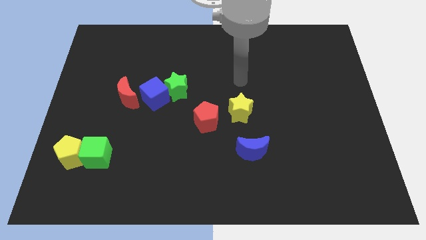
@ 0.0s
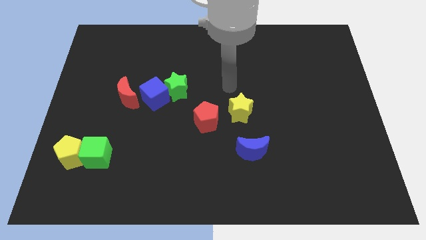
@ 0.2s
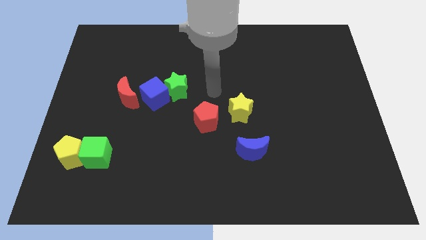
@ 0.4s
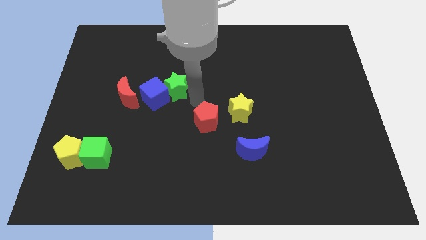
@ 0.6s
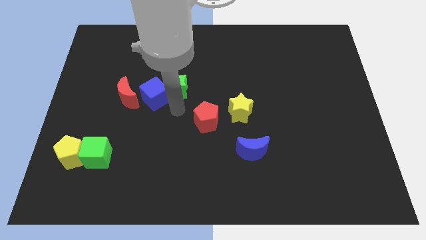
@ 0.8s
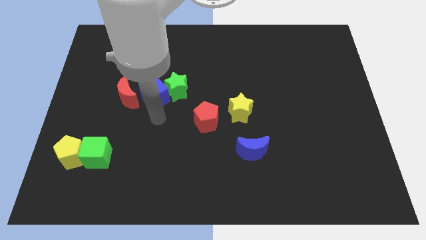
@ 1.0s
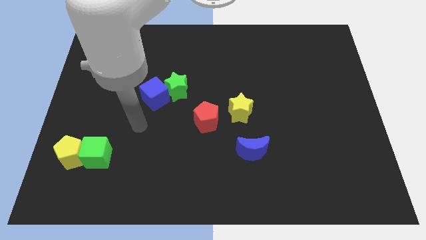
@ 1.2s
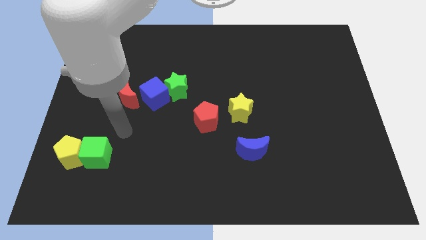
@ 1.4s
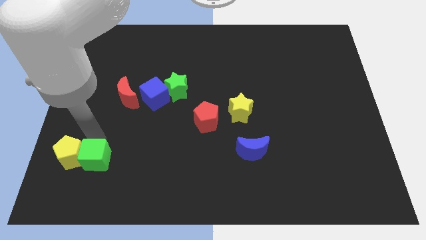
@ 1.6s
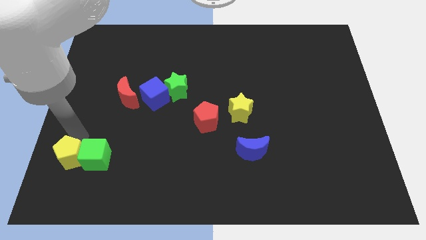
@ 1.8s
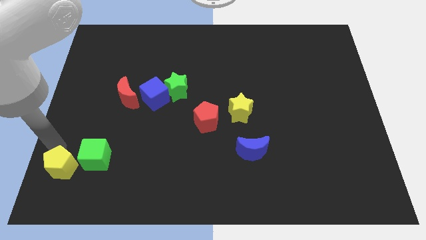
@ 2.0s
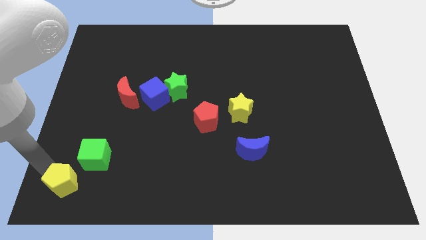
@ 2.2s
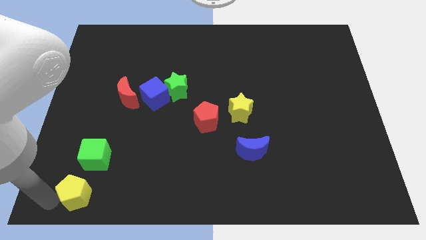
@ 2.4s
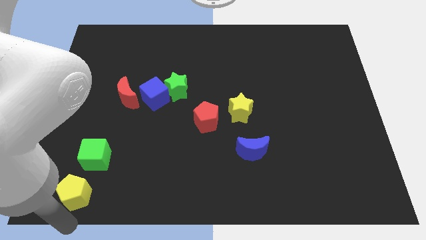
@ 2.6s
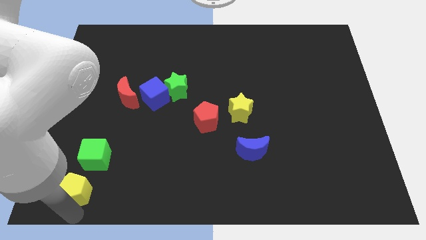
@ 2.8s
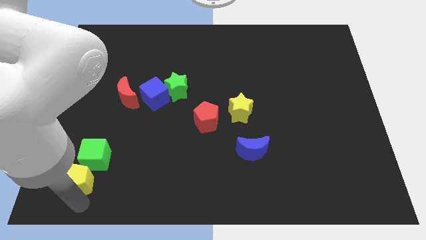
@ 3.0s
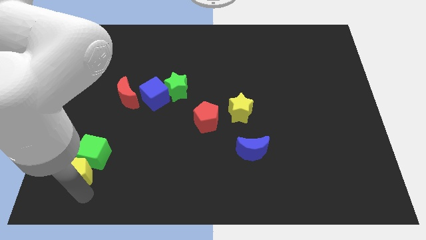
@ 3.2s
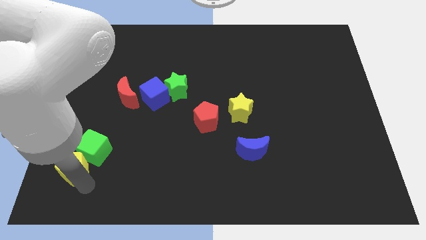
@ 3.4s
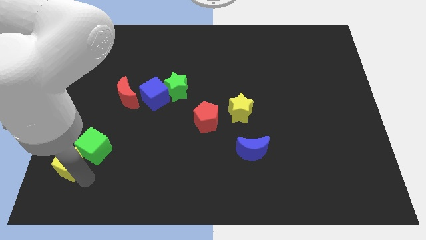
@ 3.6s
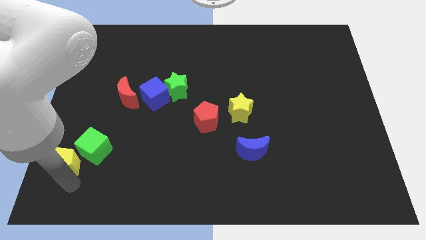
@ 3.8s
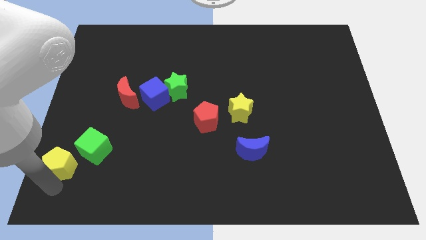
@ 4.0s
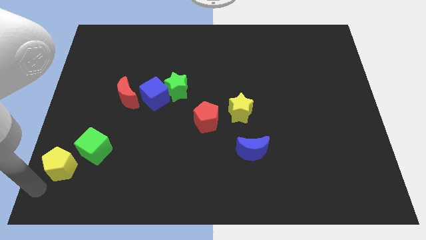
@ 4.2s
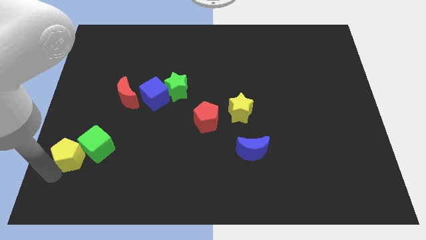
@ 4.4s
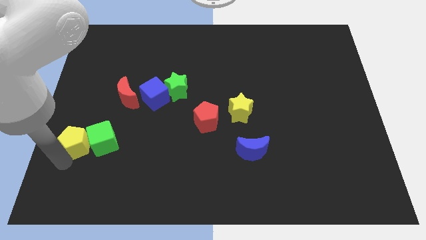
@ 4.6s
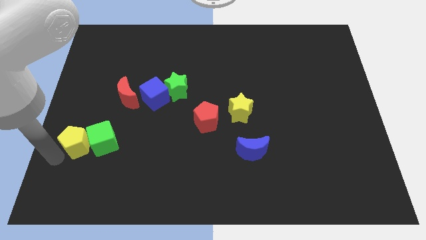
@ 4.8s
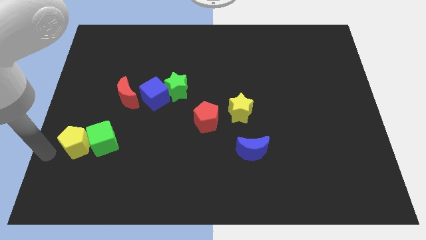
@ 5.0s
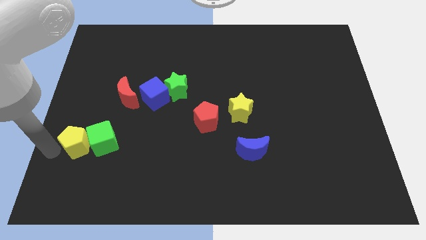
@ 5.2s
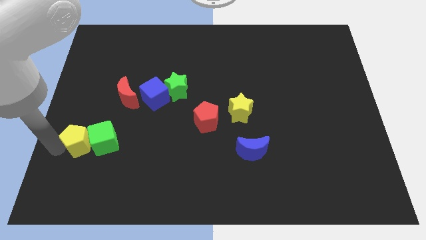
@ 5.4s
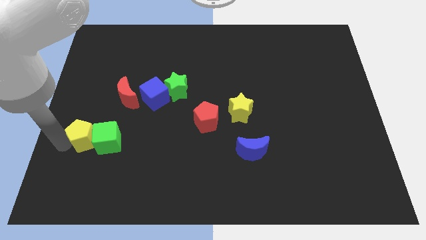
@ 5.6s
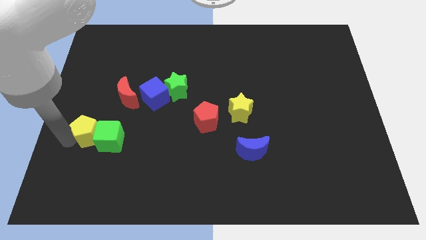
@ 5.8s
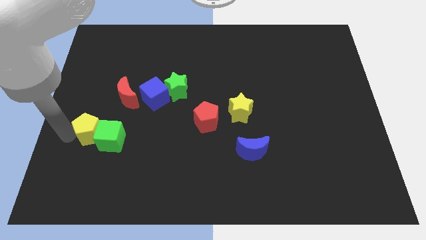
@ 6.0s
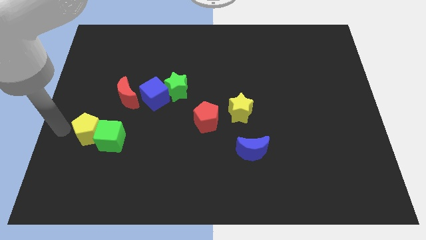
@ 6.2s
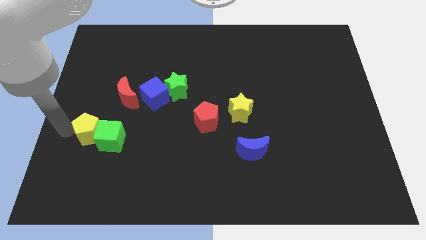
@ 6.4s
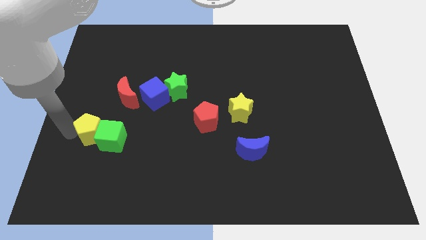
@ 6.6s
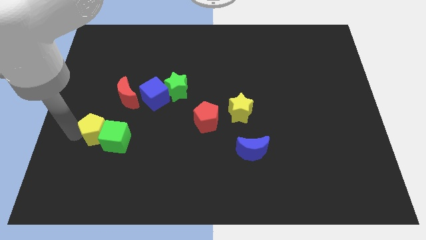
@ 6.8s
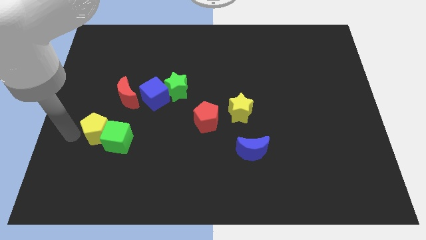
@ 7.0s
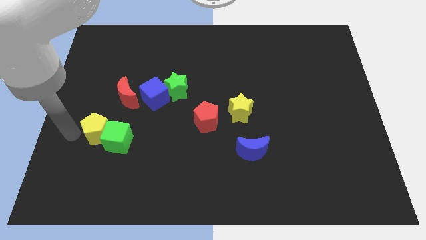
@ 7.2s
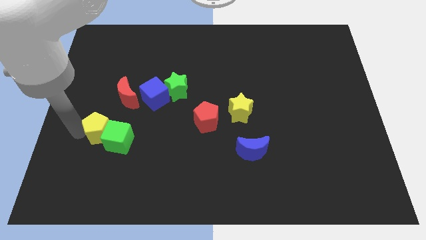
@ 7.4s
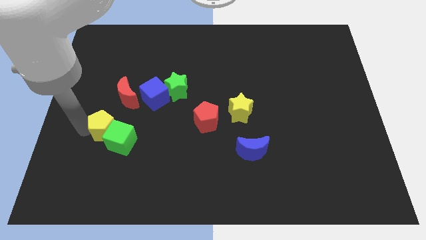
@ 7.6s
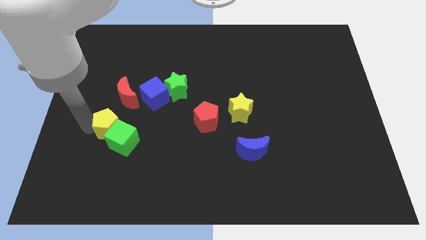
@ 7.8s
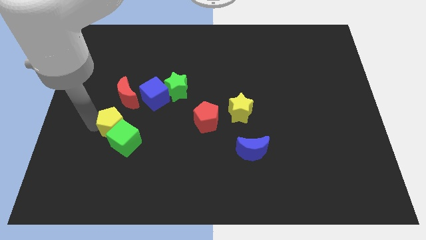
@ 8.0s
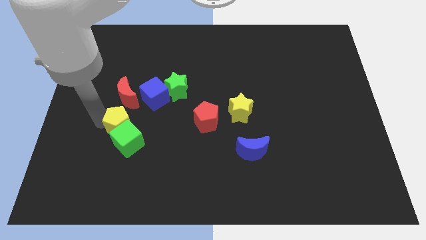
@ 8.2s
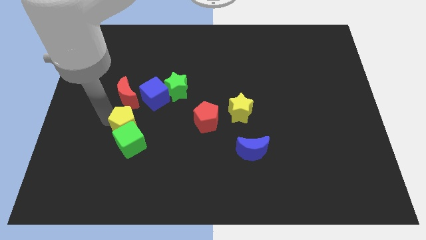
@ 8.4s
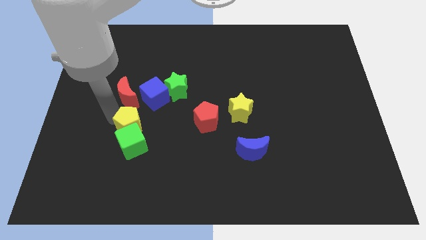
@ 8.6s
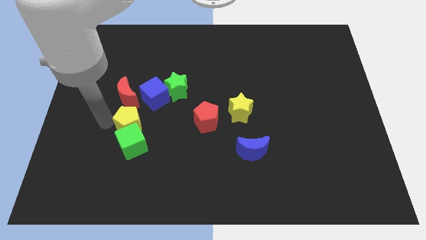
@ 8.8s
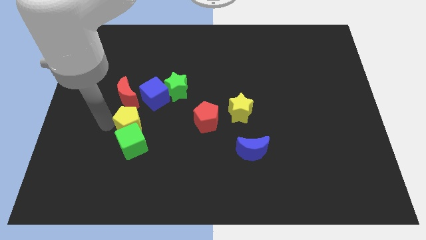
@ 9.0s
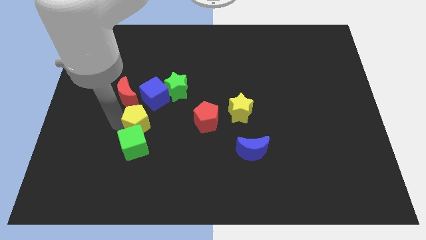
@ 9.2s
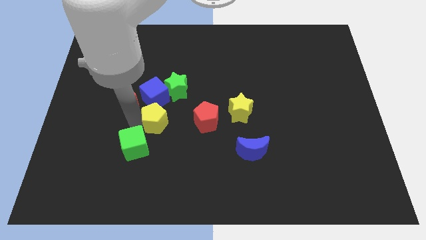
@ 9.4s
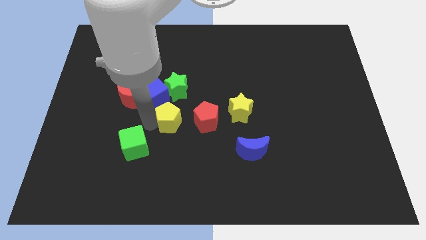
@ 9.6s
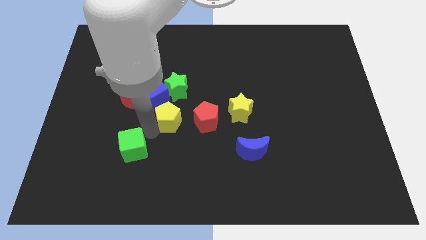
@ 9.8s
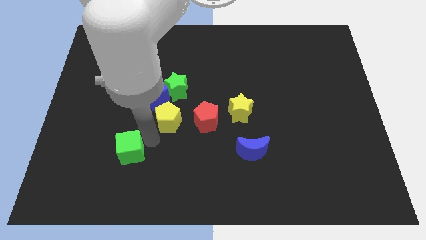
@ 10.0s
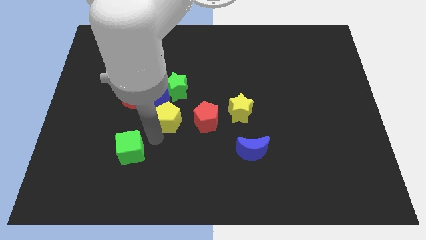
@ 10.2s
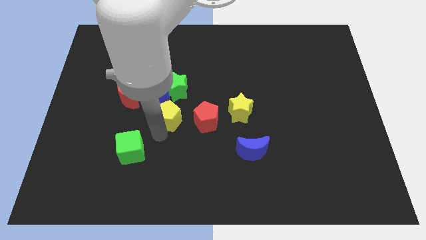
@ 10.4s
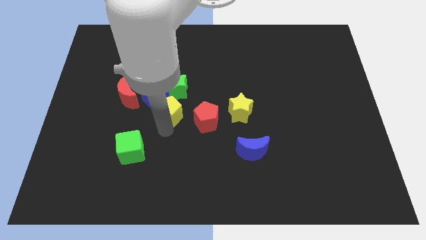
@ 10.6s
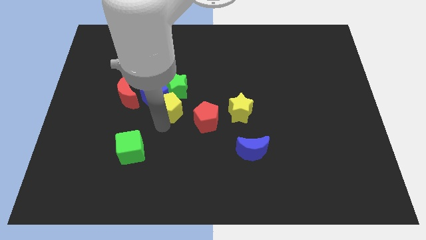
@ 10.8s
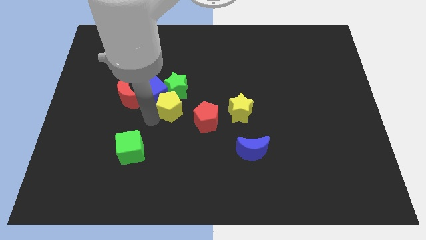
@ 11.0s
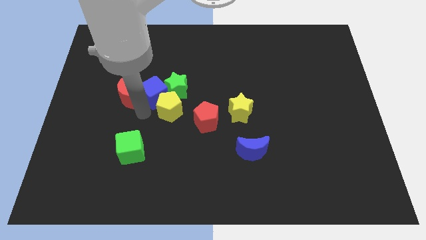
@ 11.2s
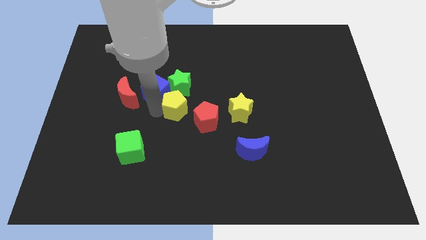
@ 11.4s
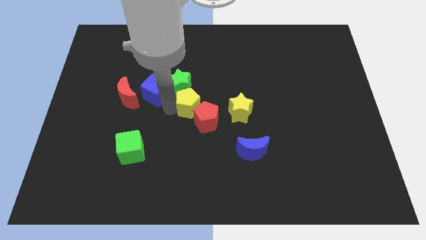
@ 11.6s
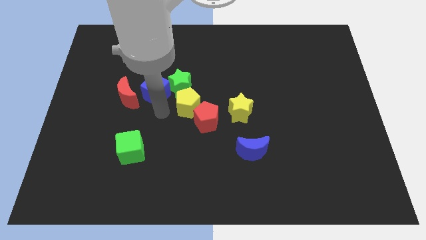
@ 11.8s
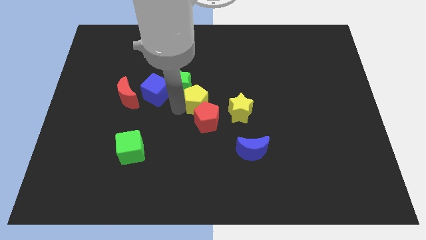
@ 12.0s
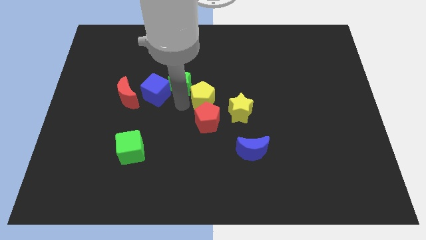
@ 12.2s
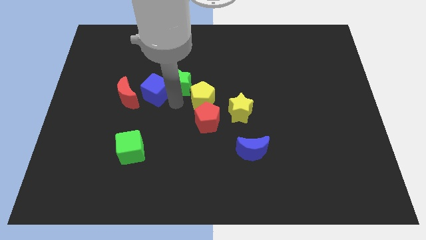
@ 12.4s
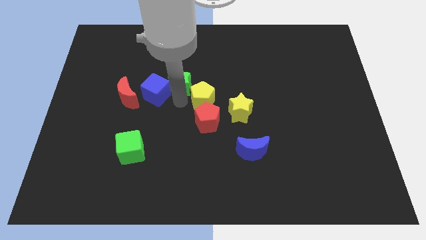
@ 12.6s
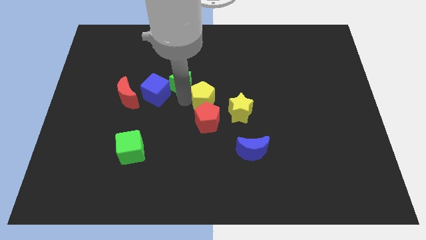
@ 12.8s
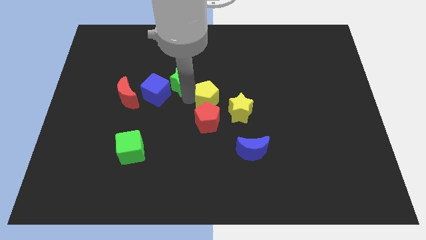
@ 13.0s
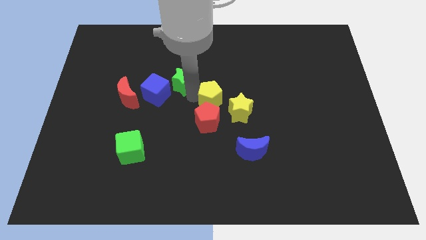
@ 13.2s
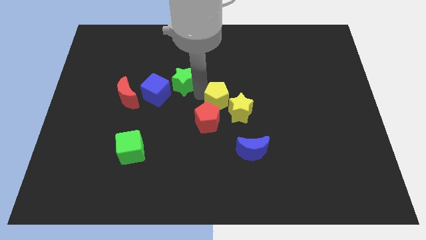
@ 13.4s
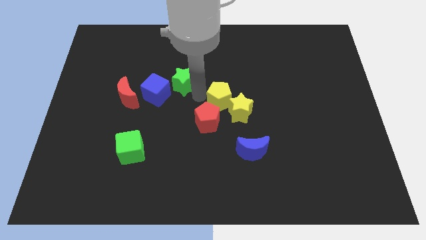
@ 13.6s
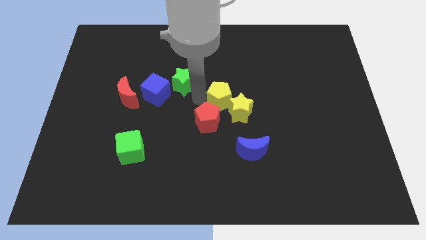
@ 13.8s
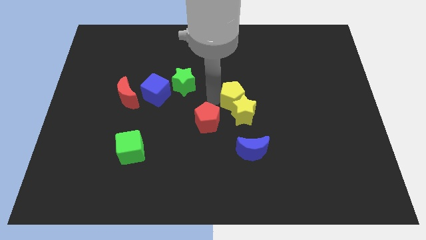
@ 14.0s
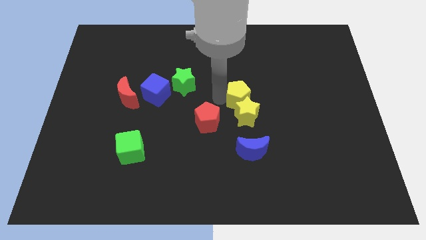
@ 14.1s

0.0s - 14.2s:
put the yellow pentagon above the blue moon
